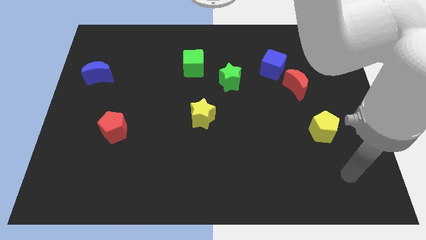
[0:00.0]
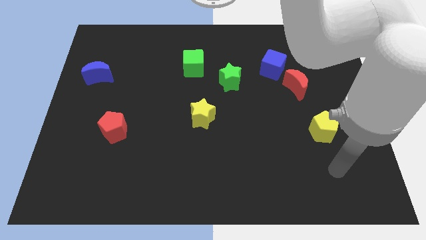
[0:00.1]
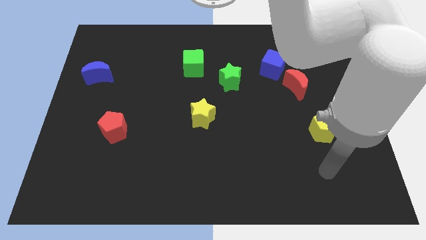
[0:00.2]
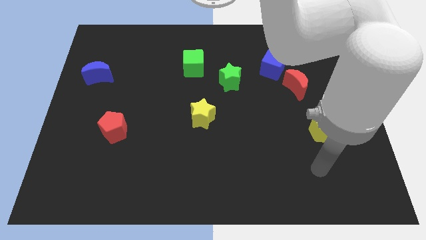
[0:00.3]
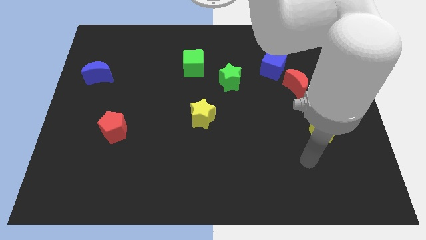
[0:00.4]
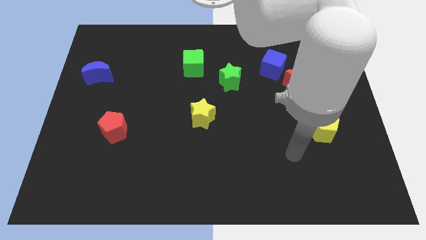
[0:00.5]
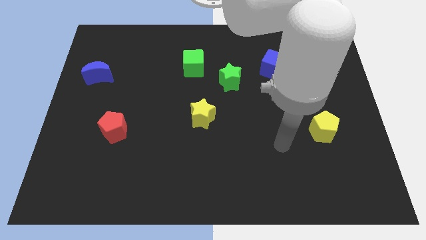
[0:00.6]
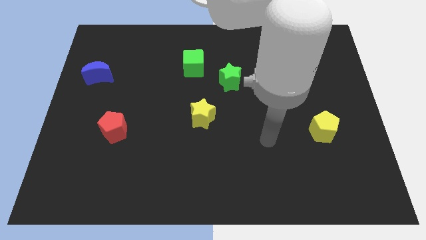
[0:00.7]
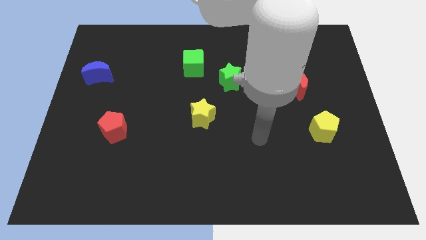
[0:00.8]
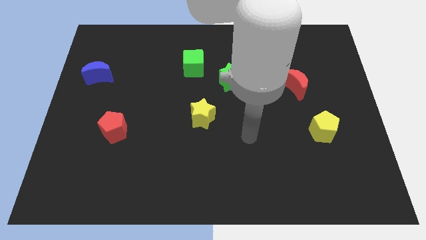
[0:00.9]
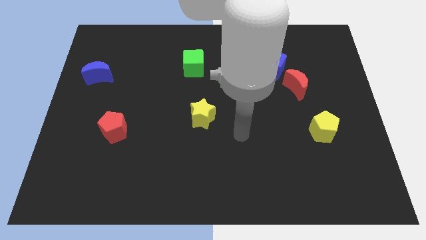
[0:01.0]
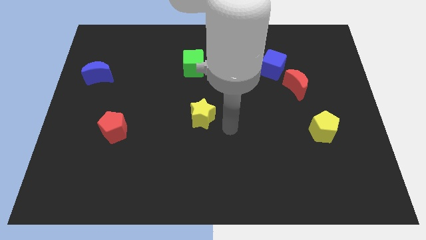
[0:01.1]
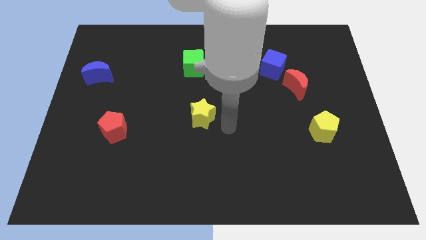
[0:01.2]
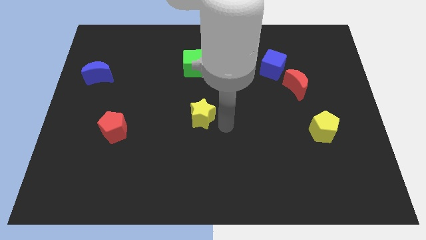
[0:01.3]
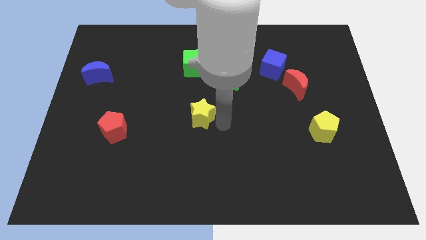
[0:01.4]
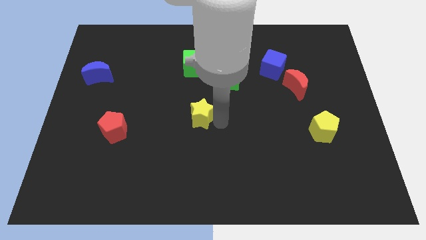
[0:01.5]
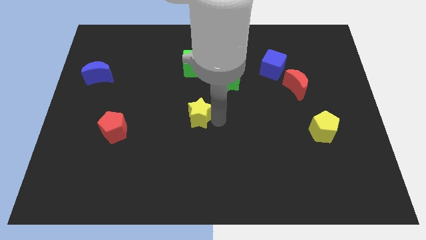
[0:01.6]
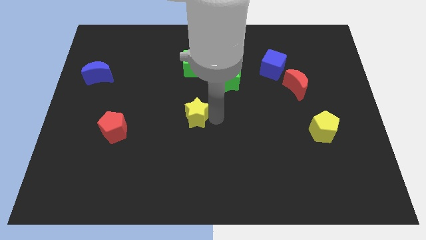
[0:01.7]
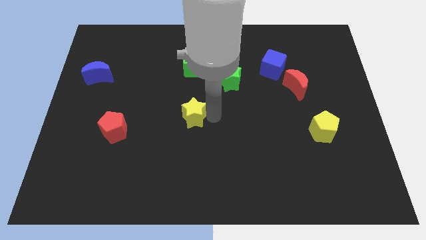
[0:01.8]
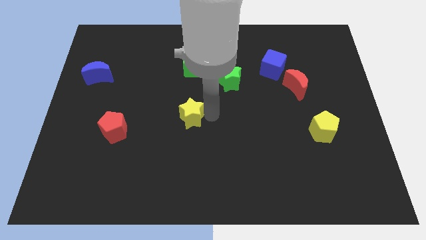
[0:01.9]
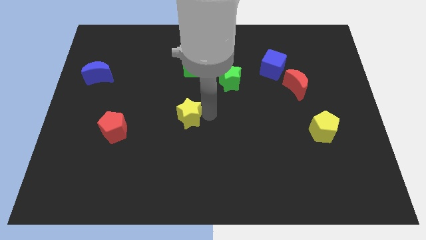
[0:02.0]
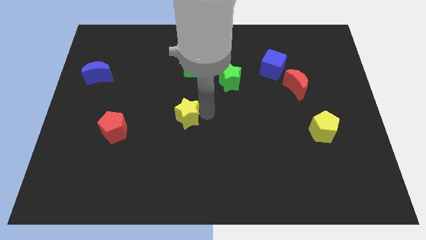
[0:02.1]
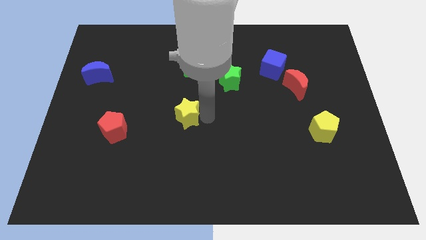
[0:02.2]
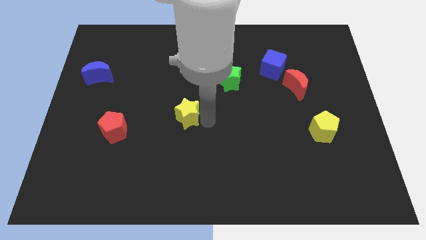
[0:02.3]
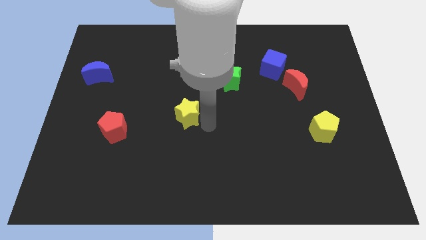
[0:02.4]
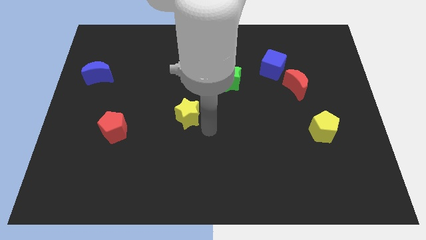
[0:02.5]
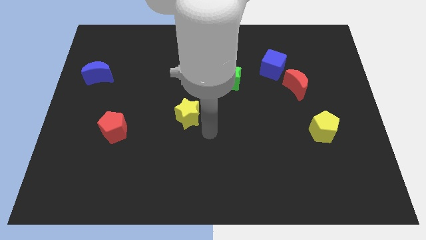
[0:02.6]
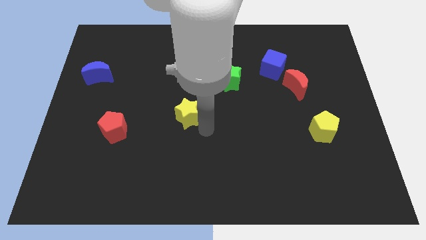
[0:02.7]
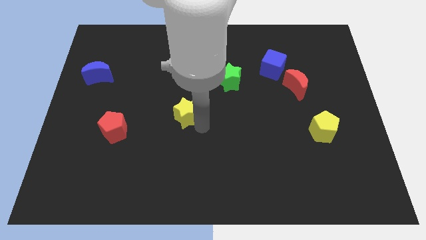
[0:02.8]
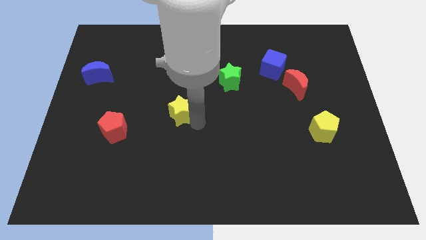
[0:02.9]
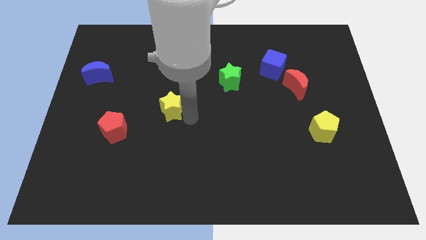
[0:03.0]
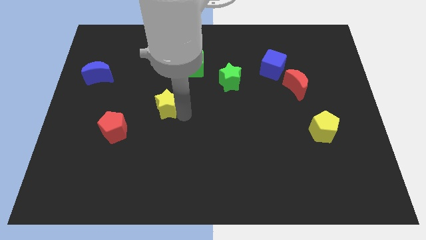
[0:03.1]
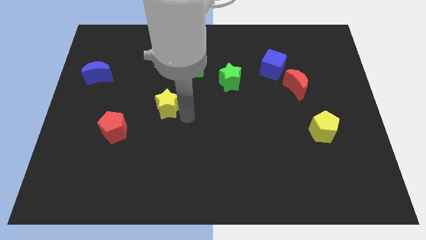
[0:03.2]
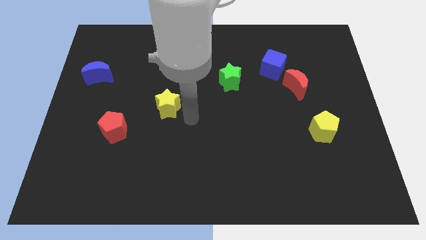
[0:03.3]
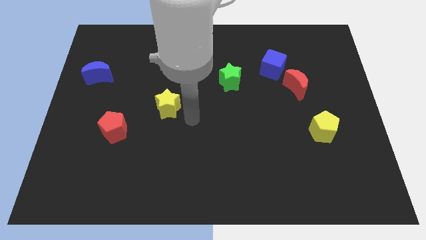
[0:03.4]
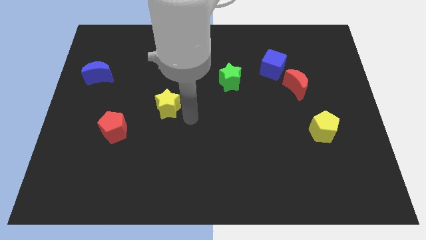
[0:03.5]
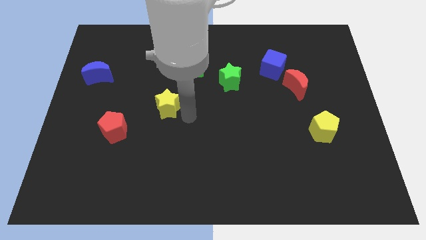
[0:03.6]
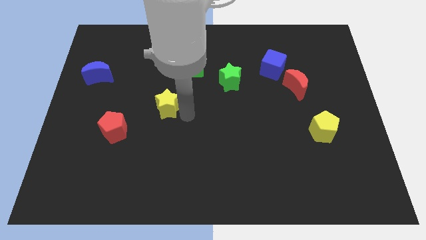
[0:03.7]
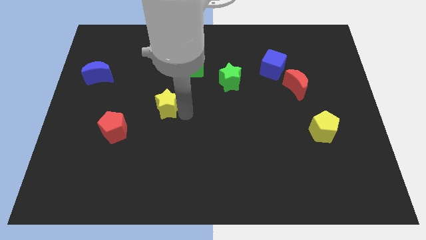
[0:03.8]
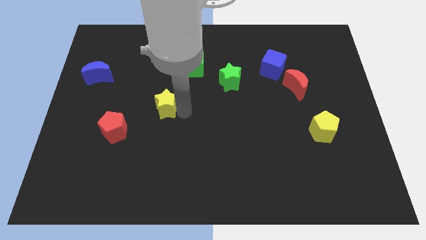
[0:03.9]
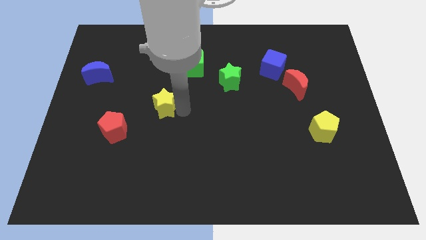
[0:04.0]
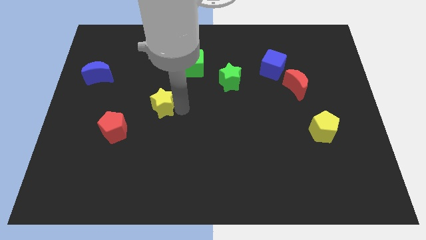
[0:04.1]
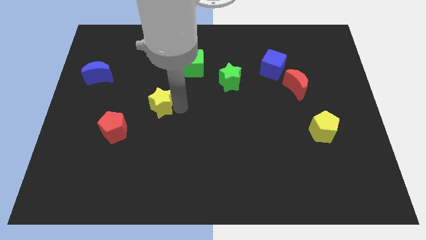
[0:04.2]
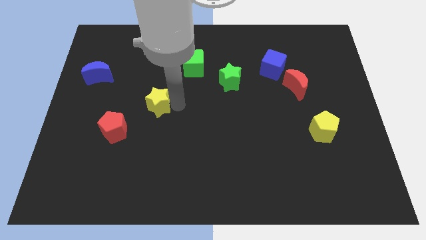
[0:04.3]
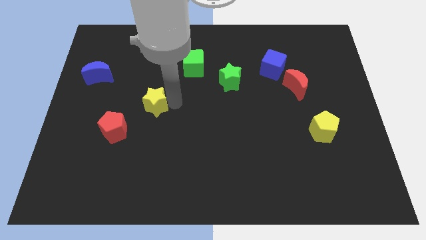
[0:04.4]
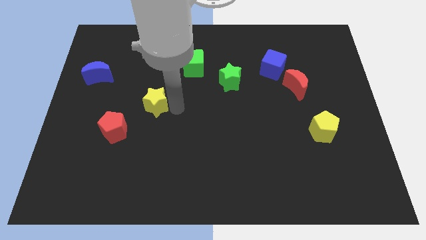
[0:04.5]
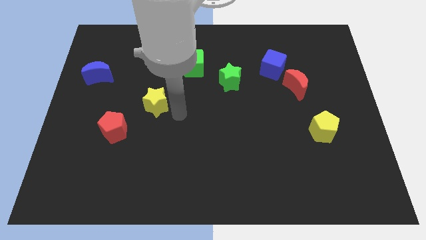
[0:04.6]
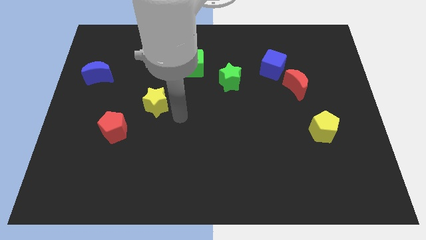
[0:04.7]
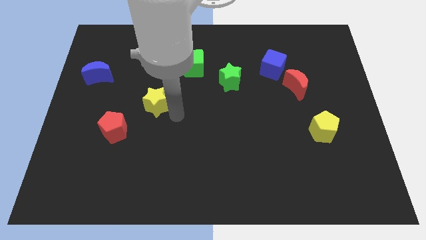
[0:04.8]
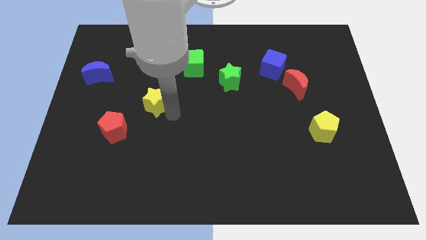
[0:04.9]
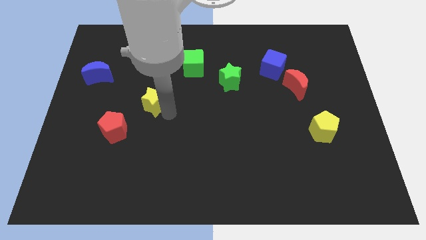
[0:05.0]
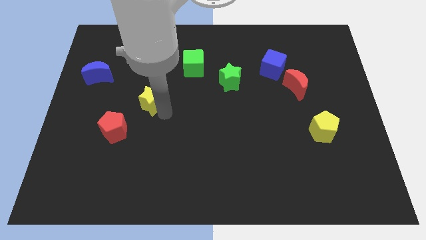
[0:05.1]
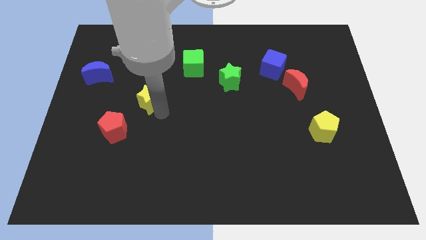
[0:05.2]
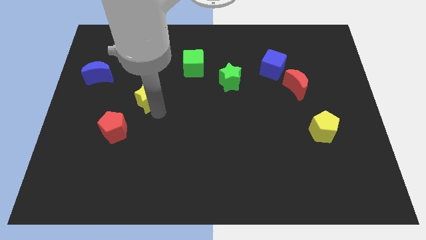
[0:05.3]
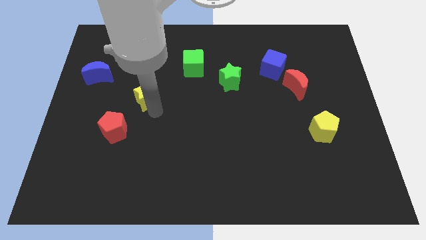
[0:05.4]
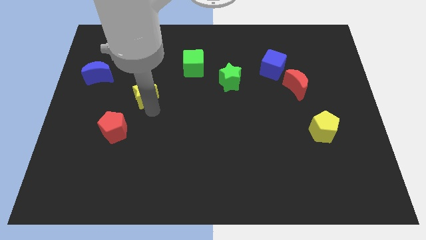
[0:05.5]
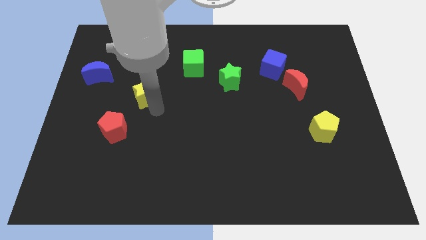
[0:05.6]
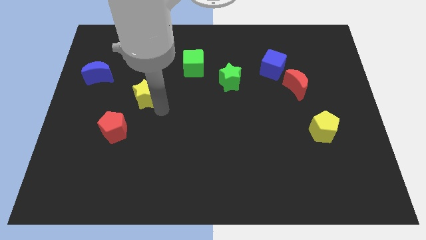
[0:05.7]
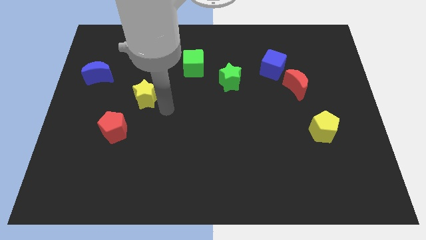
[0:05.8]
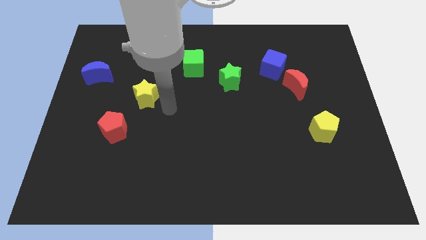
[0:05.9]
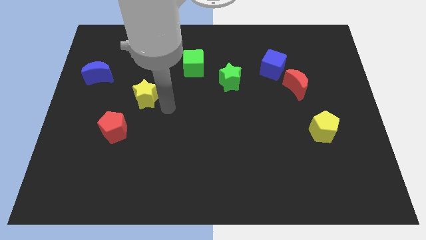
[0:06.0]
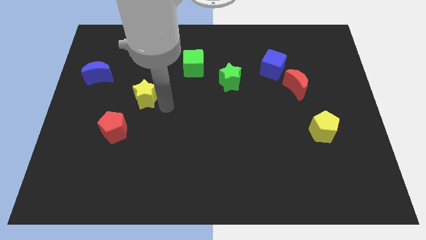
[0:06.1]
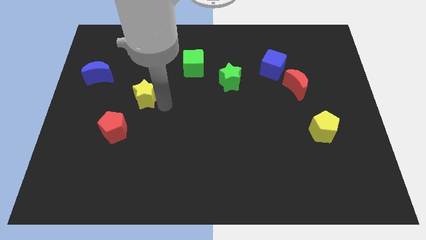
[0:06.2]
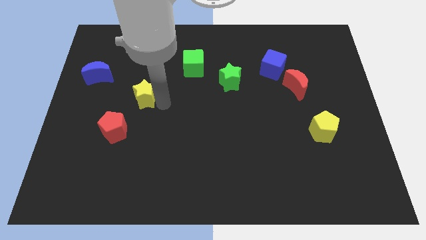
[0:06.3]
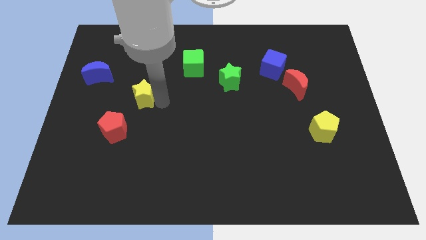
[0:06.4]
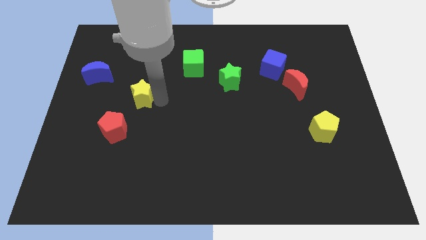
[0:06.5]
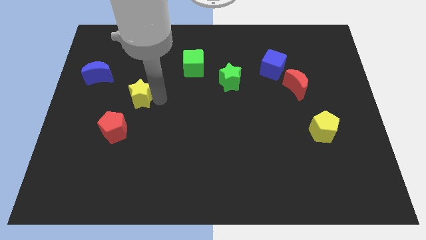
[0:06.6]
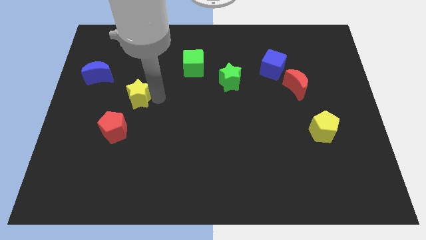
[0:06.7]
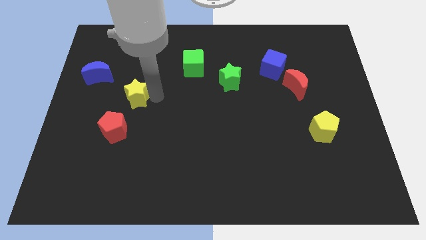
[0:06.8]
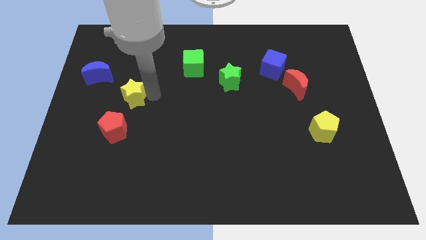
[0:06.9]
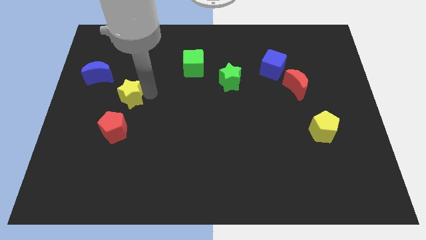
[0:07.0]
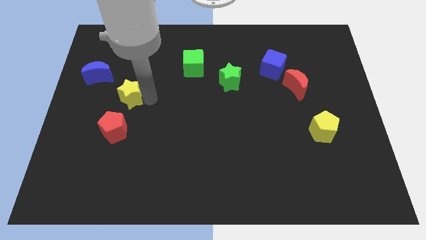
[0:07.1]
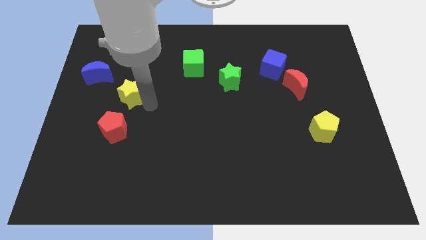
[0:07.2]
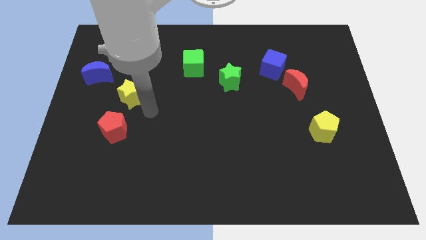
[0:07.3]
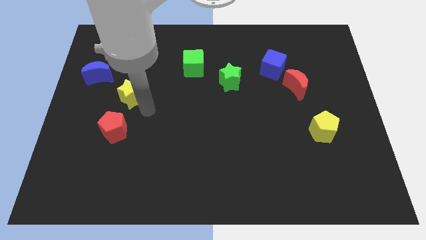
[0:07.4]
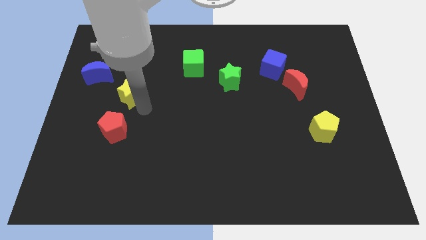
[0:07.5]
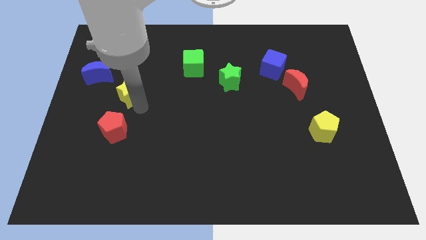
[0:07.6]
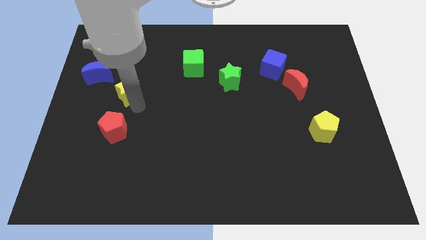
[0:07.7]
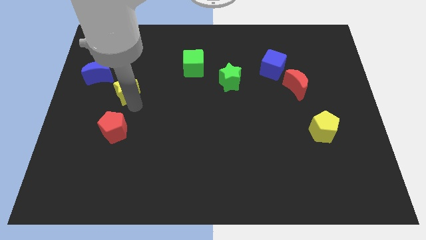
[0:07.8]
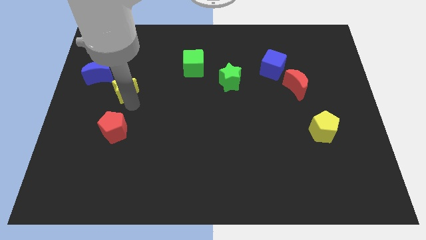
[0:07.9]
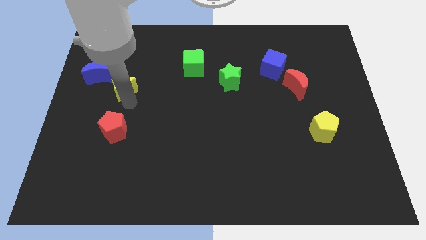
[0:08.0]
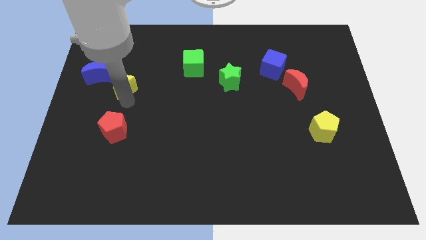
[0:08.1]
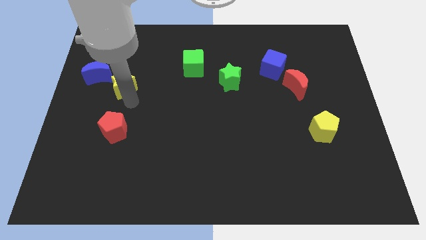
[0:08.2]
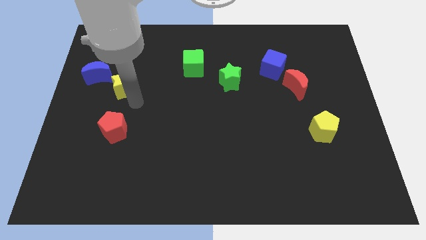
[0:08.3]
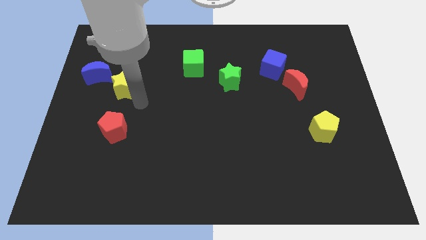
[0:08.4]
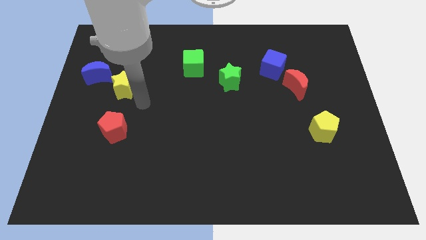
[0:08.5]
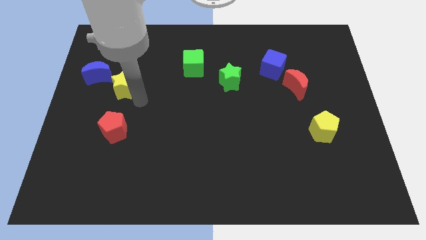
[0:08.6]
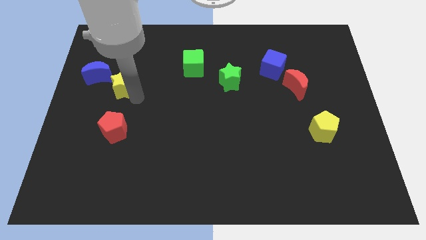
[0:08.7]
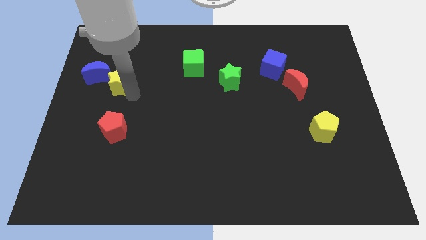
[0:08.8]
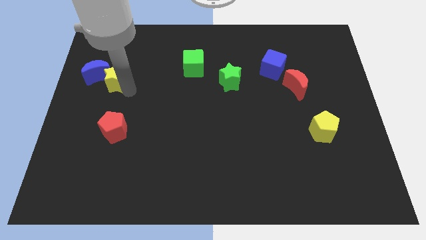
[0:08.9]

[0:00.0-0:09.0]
put the yellow star close to the blue moon
